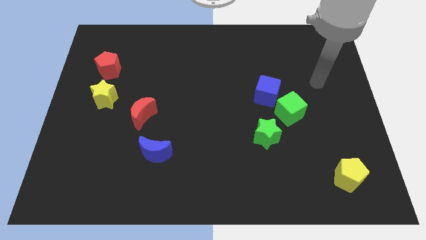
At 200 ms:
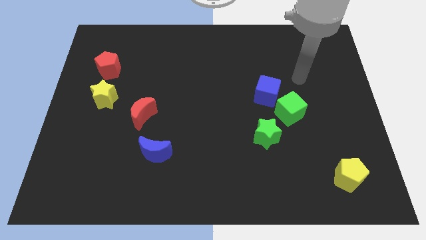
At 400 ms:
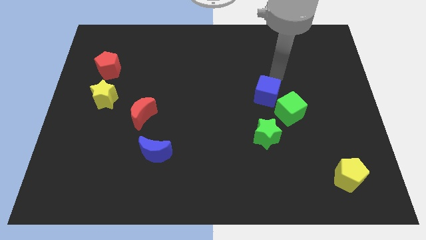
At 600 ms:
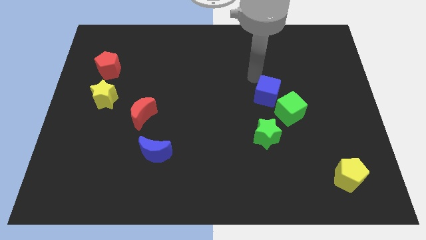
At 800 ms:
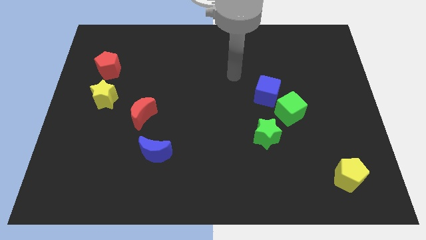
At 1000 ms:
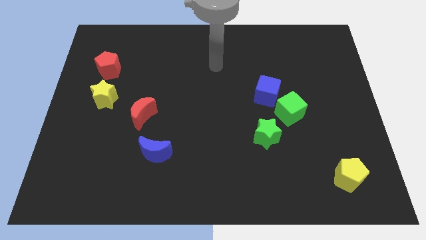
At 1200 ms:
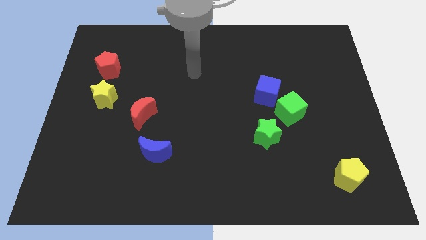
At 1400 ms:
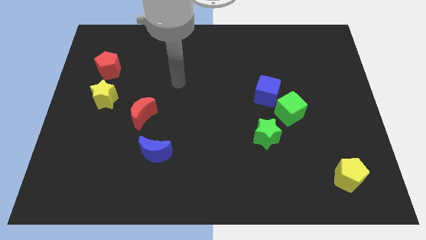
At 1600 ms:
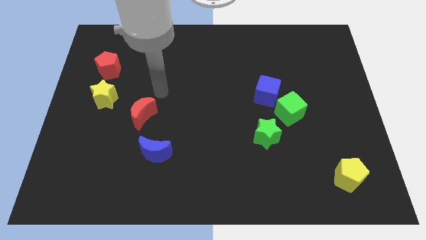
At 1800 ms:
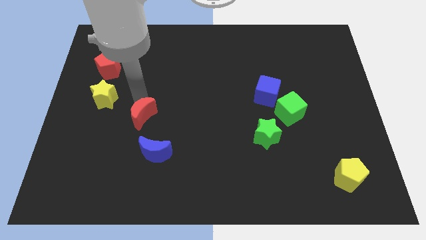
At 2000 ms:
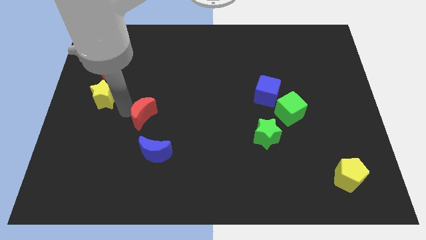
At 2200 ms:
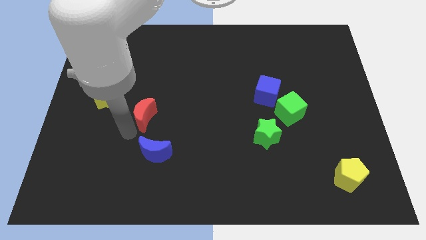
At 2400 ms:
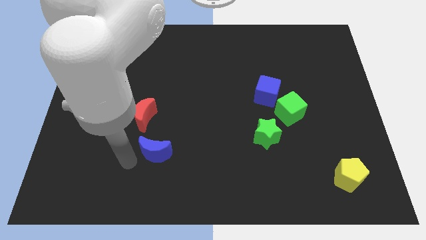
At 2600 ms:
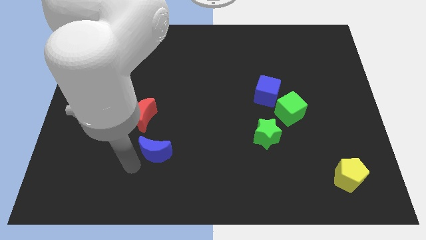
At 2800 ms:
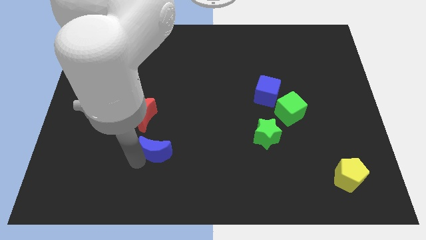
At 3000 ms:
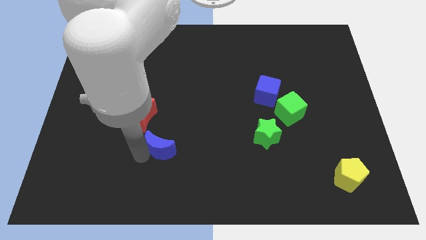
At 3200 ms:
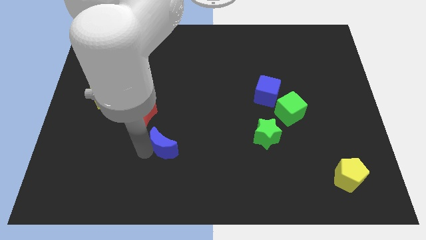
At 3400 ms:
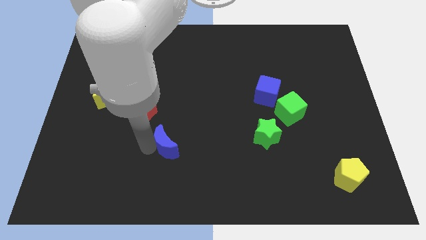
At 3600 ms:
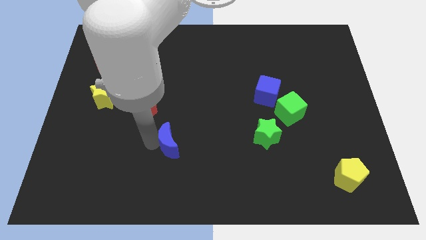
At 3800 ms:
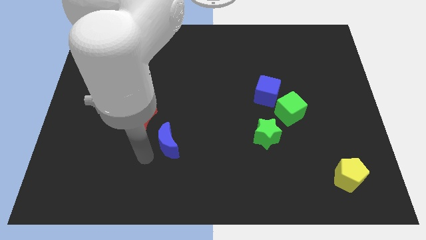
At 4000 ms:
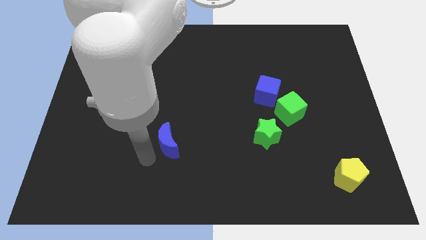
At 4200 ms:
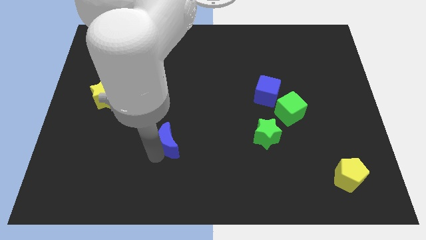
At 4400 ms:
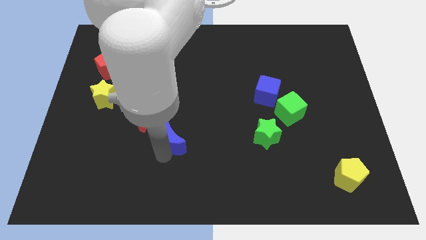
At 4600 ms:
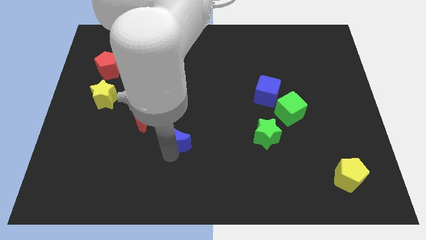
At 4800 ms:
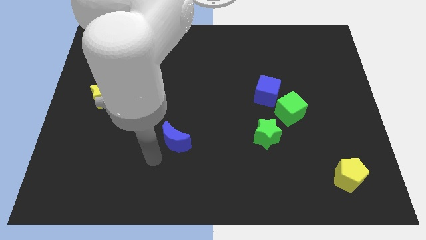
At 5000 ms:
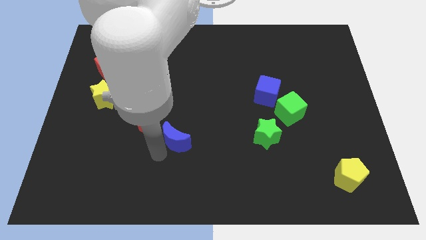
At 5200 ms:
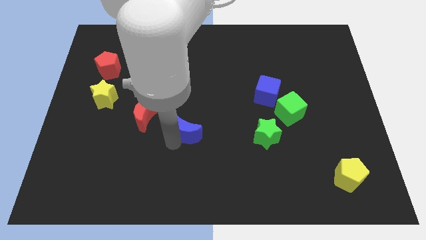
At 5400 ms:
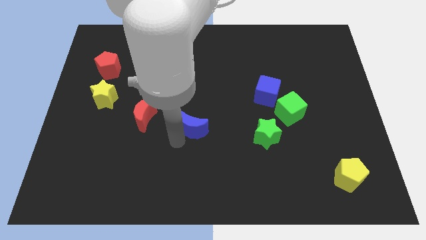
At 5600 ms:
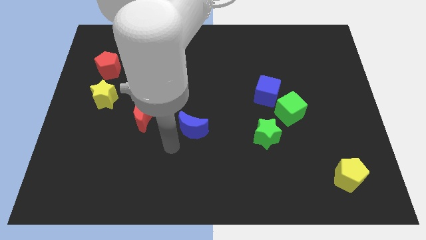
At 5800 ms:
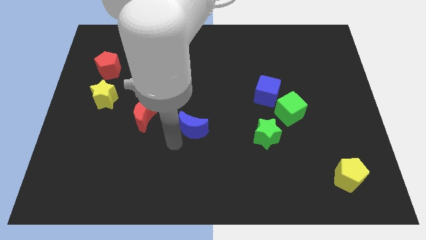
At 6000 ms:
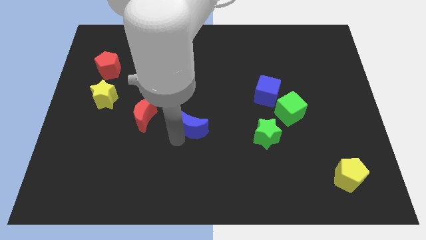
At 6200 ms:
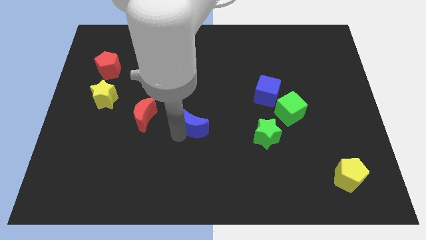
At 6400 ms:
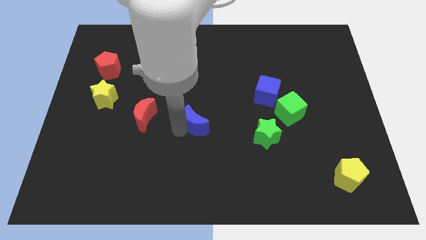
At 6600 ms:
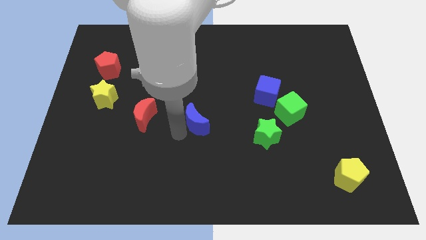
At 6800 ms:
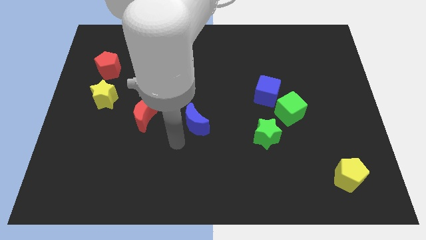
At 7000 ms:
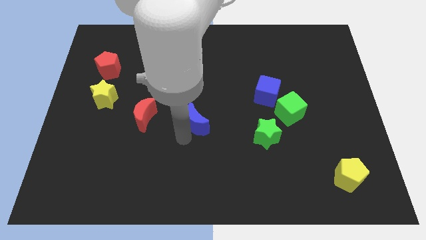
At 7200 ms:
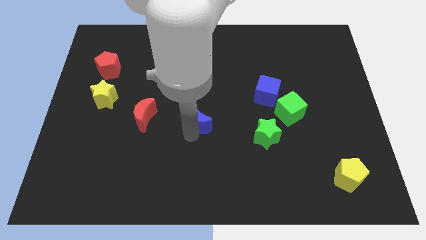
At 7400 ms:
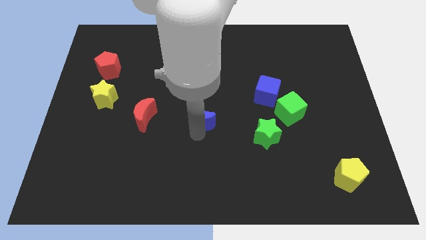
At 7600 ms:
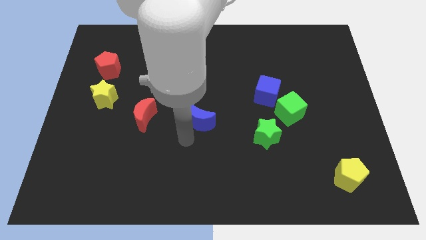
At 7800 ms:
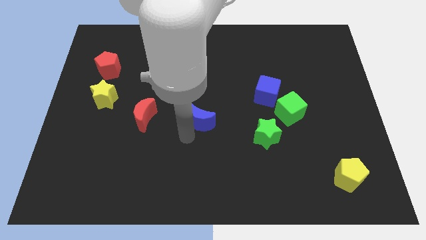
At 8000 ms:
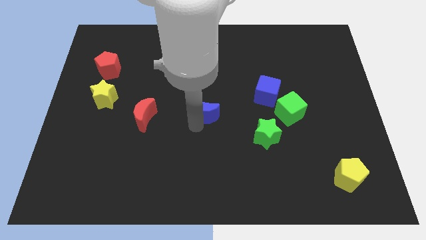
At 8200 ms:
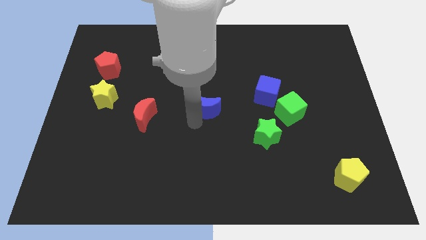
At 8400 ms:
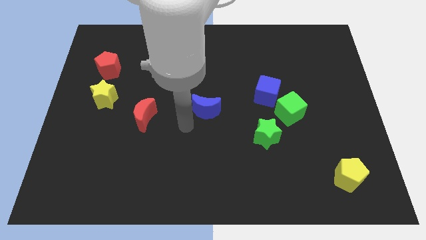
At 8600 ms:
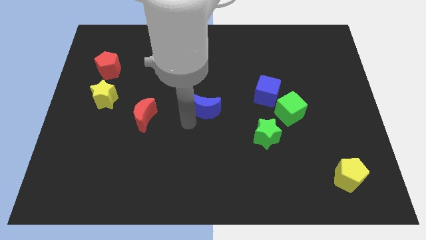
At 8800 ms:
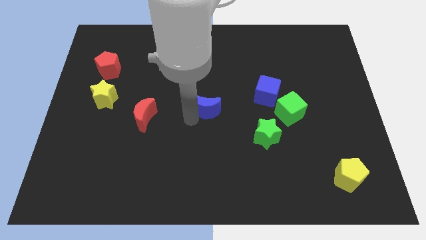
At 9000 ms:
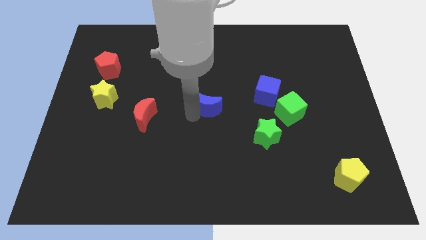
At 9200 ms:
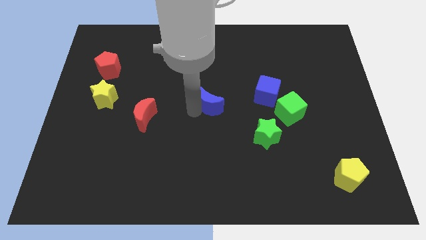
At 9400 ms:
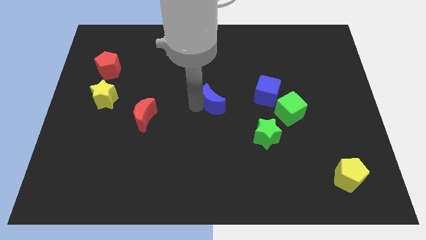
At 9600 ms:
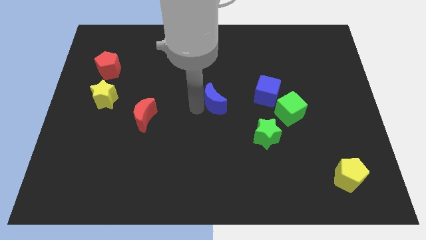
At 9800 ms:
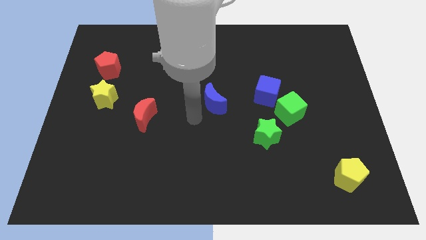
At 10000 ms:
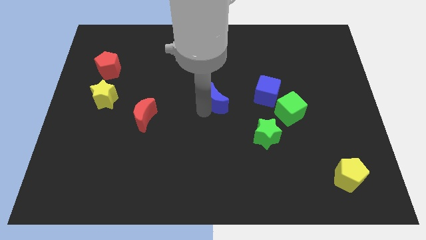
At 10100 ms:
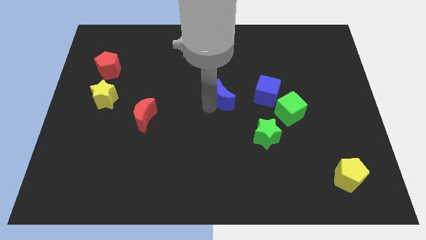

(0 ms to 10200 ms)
push the blue moon upwards and right diagonally

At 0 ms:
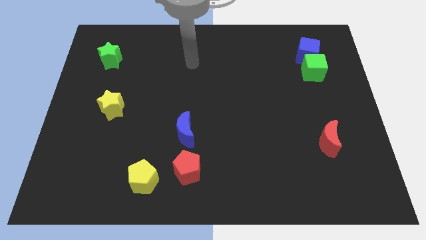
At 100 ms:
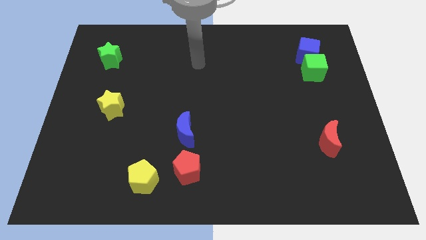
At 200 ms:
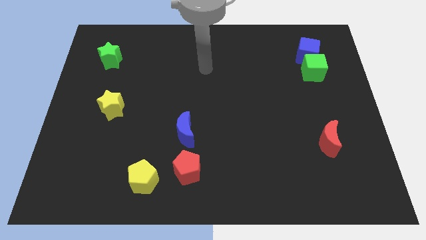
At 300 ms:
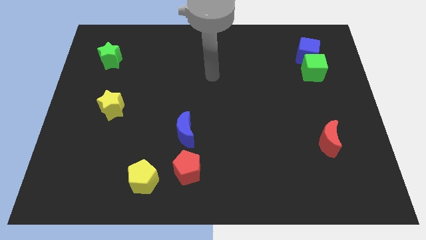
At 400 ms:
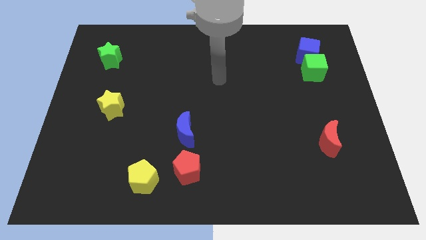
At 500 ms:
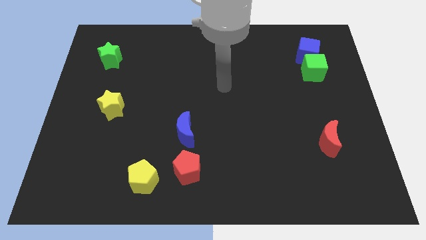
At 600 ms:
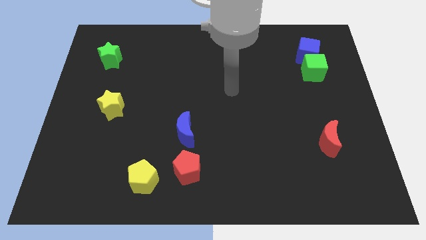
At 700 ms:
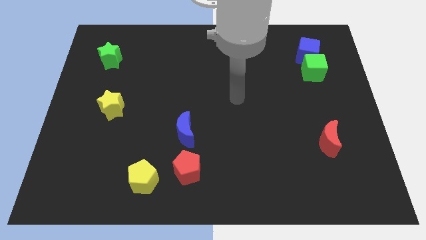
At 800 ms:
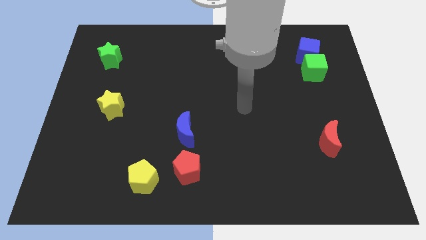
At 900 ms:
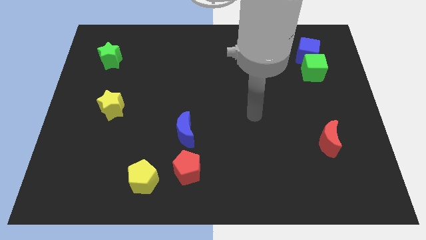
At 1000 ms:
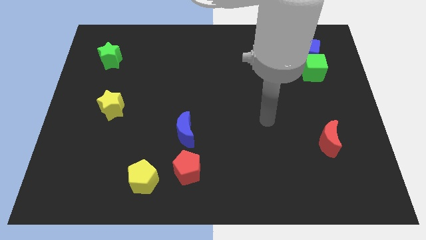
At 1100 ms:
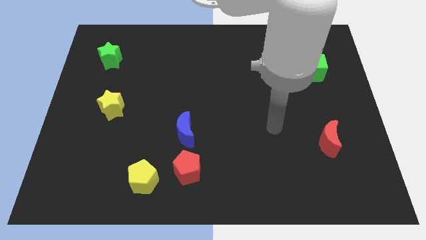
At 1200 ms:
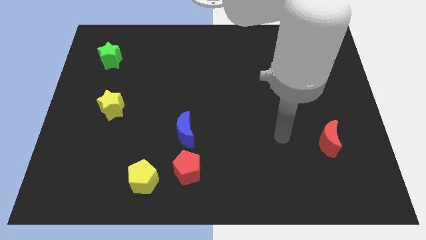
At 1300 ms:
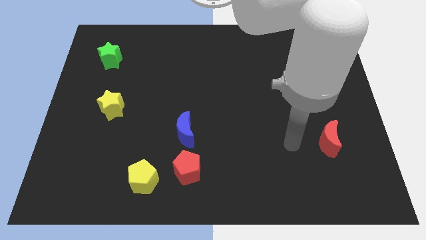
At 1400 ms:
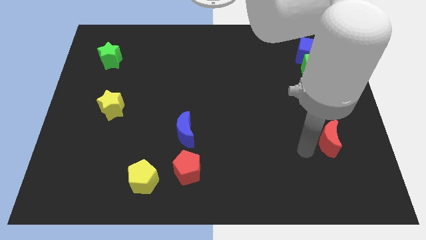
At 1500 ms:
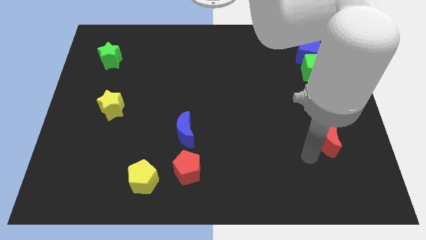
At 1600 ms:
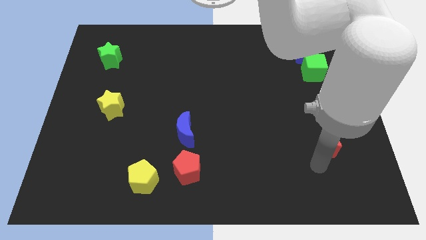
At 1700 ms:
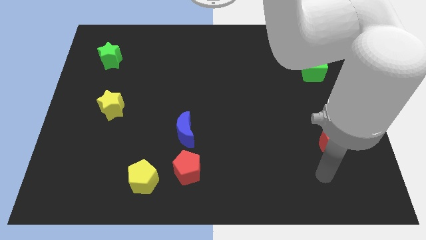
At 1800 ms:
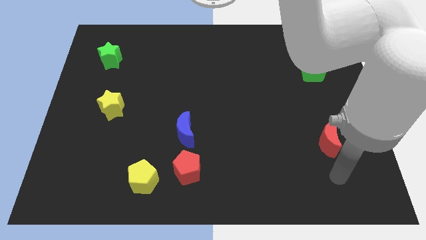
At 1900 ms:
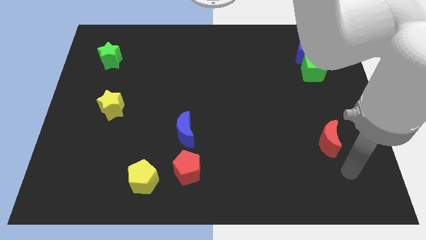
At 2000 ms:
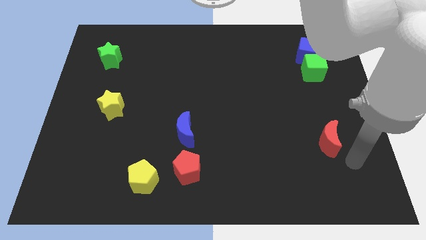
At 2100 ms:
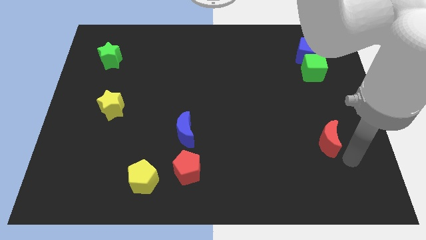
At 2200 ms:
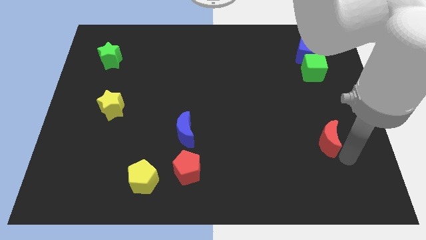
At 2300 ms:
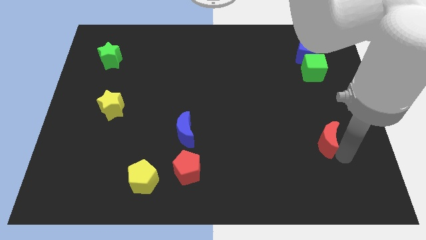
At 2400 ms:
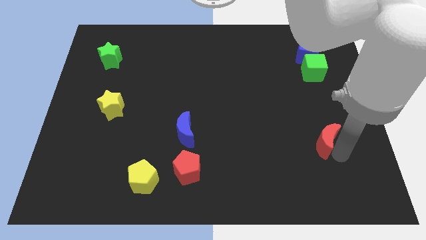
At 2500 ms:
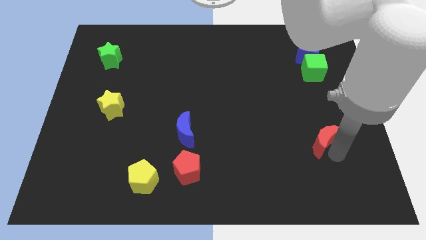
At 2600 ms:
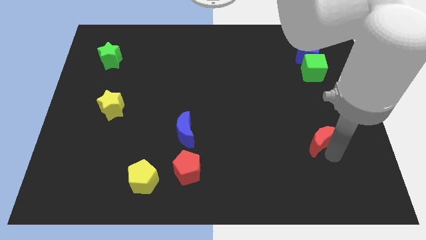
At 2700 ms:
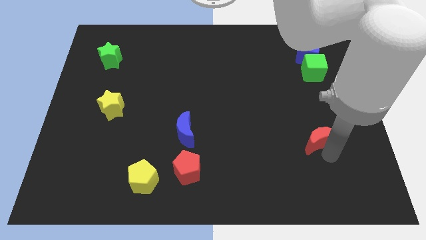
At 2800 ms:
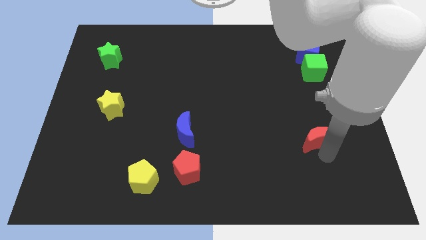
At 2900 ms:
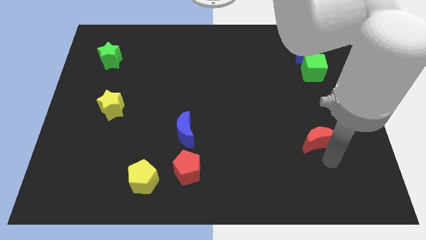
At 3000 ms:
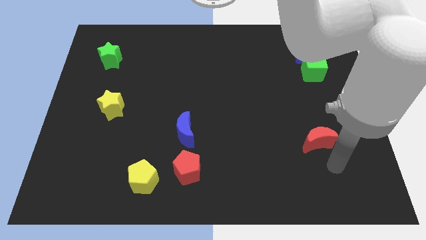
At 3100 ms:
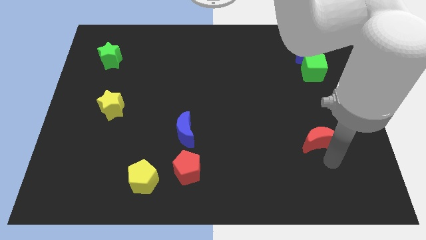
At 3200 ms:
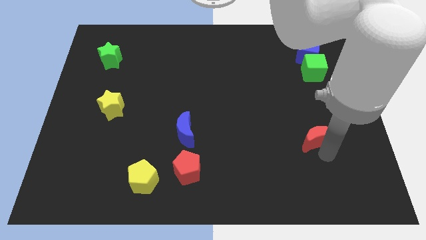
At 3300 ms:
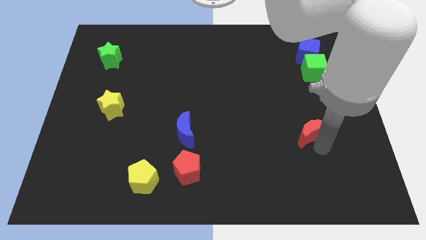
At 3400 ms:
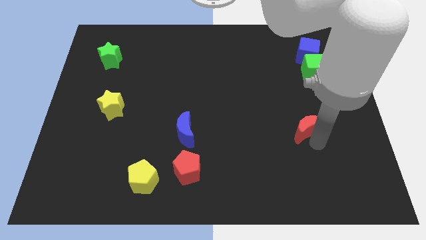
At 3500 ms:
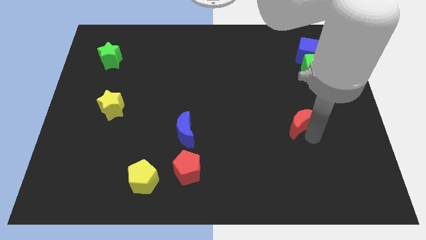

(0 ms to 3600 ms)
slide the red moon diagonally up and to the left slightly
